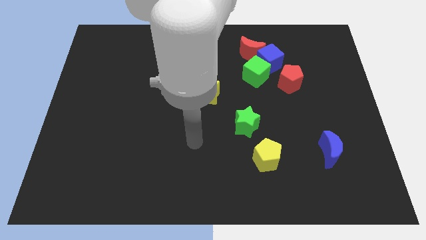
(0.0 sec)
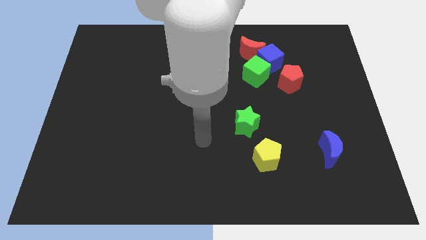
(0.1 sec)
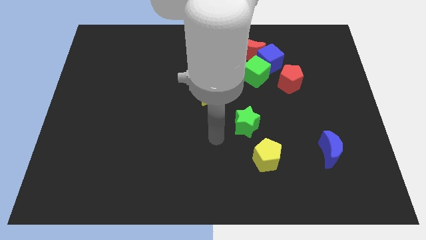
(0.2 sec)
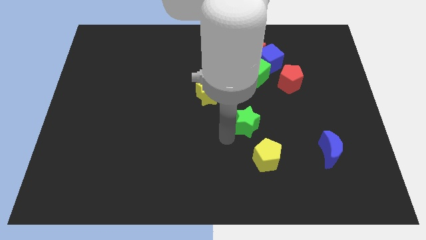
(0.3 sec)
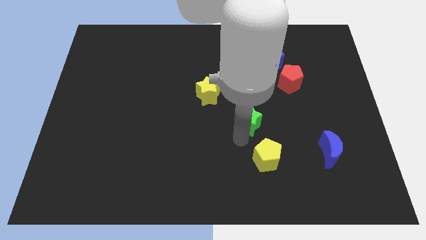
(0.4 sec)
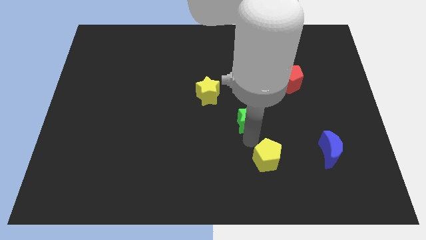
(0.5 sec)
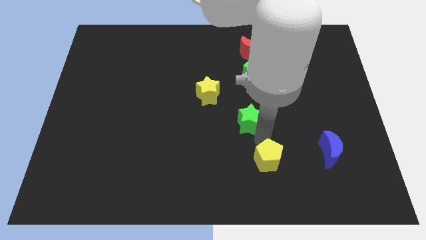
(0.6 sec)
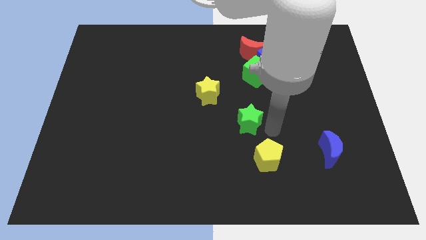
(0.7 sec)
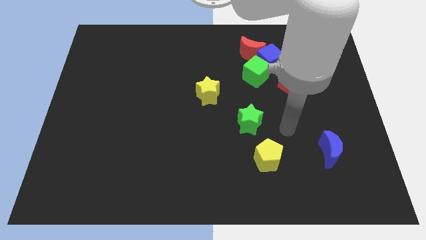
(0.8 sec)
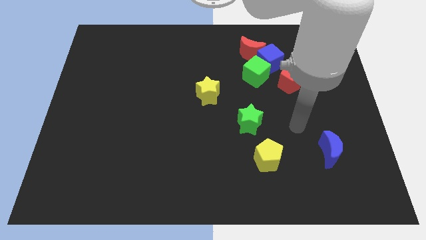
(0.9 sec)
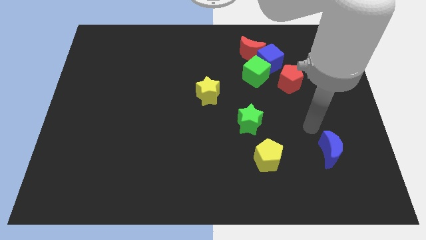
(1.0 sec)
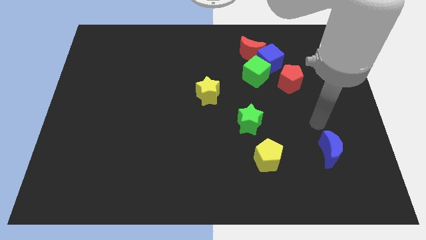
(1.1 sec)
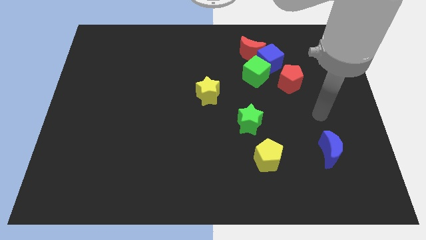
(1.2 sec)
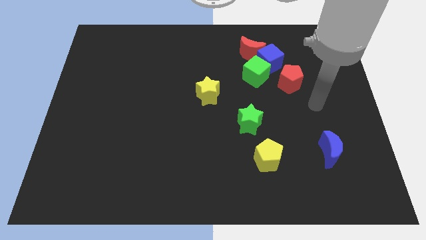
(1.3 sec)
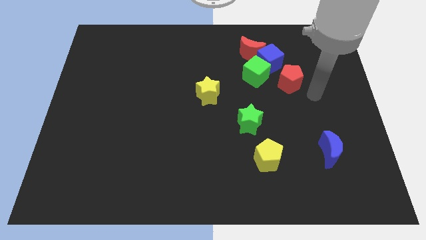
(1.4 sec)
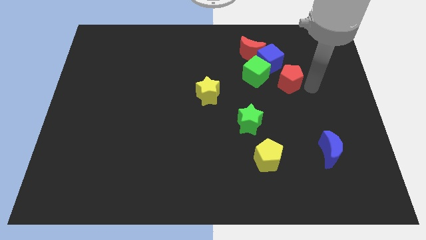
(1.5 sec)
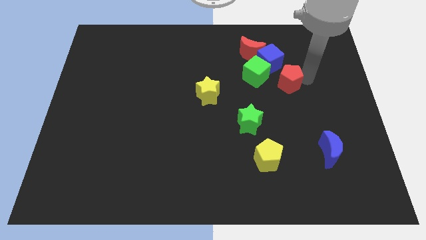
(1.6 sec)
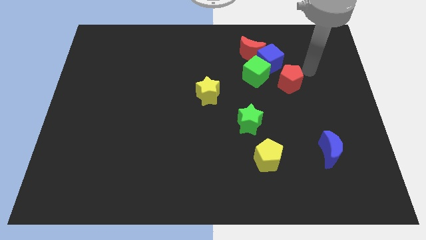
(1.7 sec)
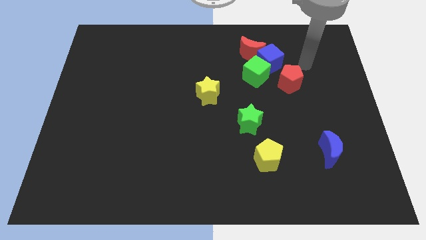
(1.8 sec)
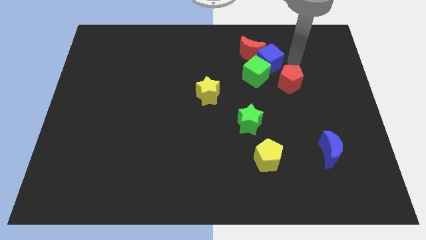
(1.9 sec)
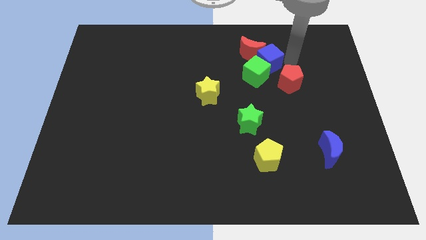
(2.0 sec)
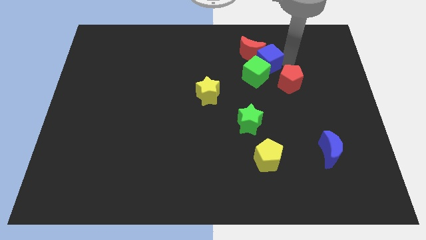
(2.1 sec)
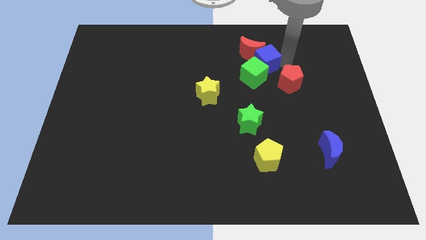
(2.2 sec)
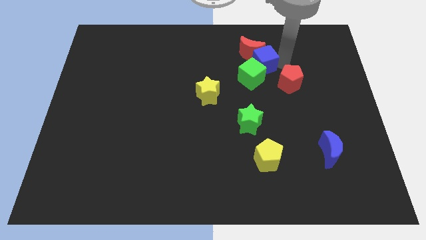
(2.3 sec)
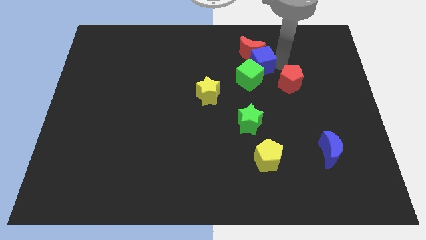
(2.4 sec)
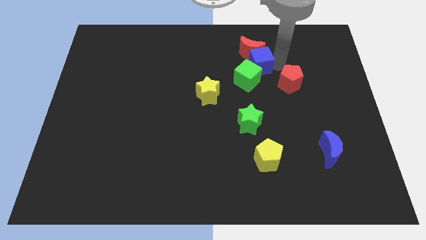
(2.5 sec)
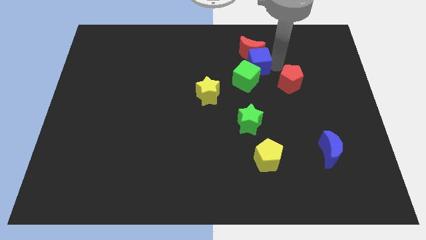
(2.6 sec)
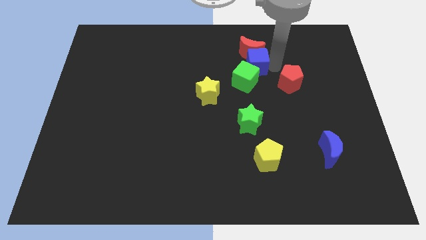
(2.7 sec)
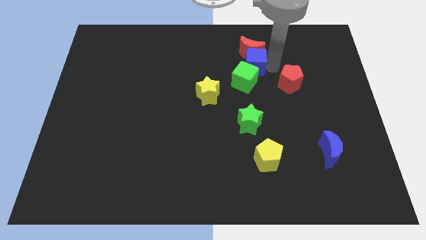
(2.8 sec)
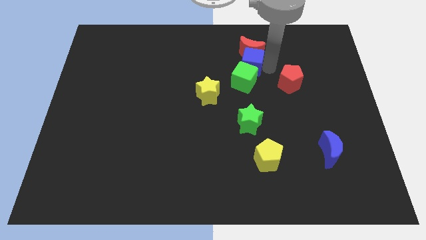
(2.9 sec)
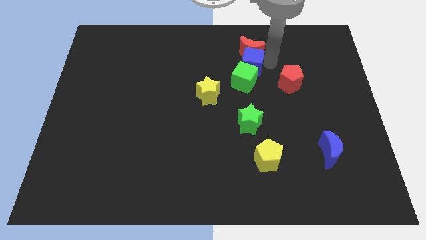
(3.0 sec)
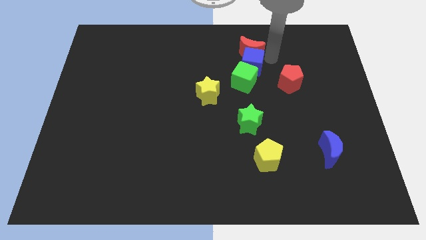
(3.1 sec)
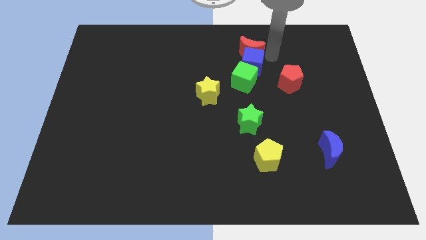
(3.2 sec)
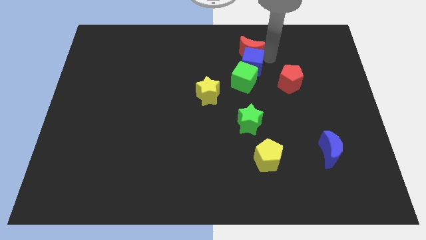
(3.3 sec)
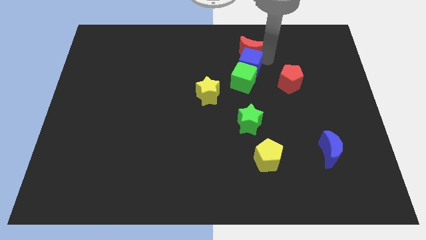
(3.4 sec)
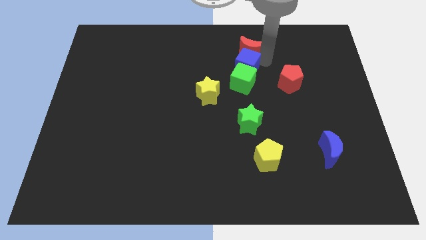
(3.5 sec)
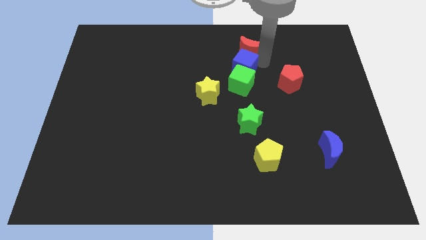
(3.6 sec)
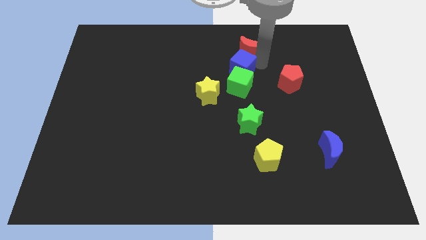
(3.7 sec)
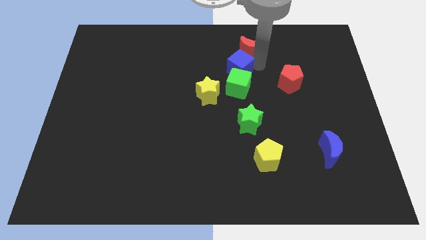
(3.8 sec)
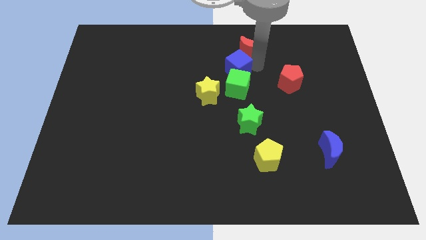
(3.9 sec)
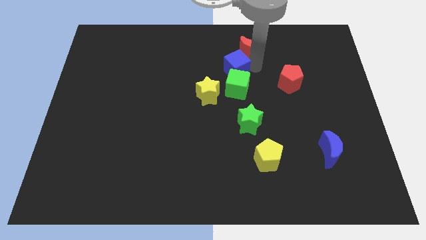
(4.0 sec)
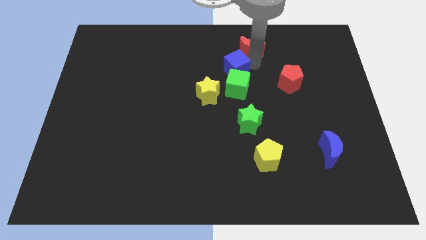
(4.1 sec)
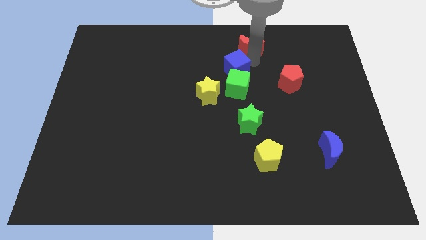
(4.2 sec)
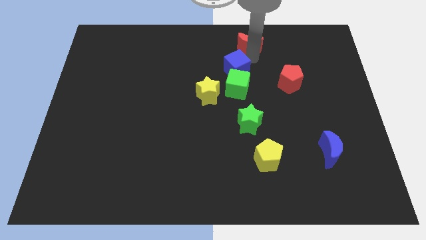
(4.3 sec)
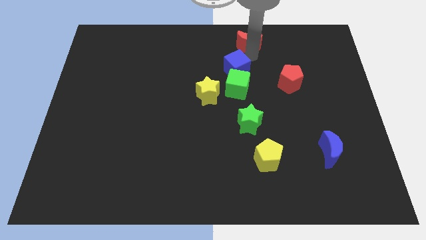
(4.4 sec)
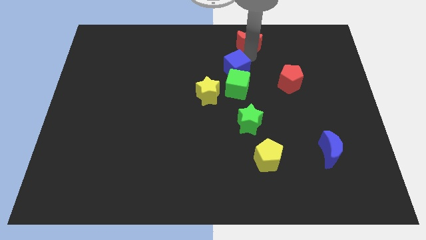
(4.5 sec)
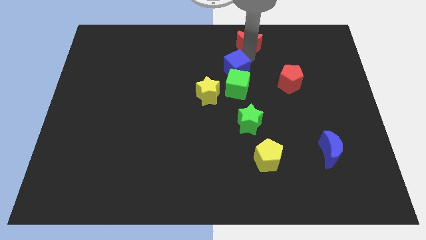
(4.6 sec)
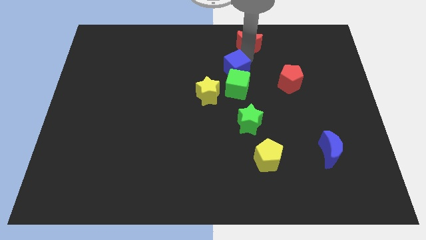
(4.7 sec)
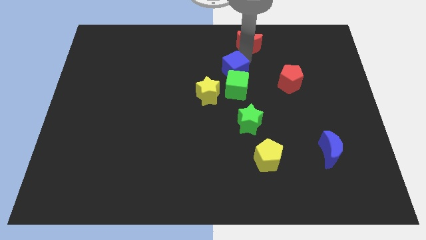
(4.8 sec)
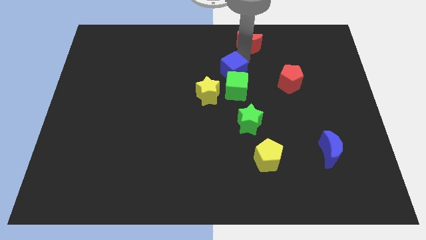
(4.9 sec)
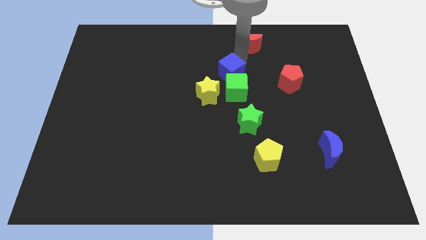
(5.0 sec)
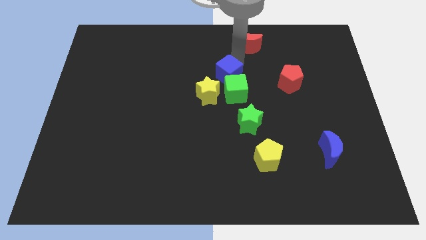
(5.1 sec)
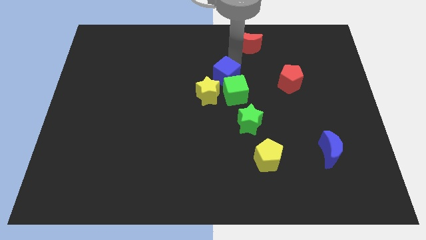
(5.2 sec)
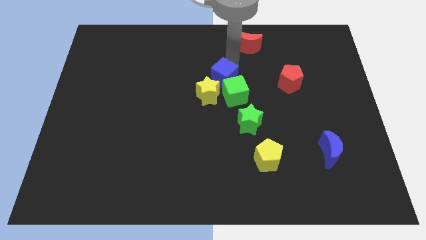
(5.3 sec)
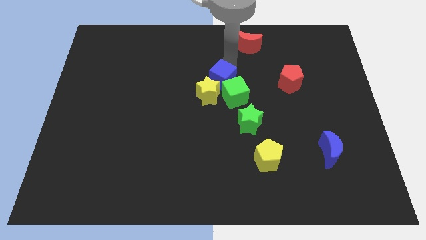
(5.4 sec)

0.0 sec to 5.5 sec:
put the blue cube next to the yellow star
